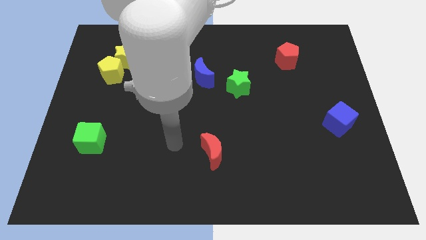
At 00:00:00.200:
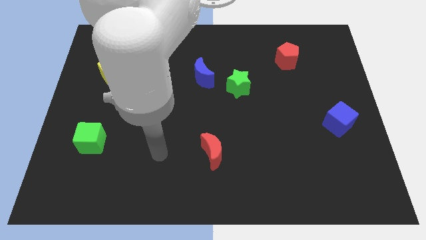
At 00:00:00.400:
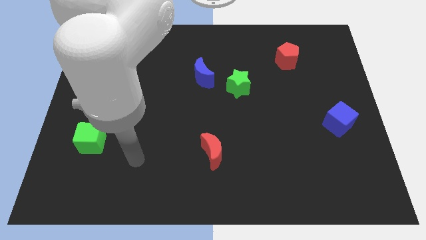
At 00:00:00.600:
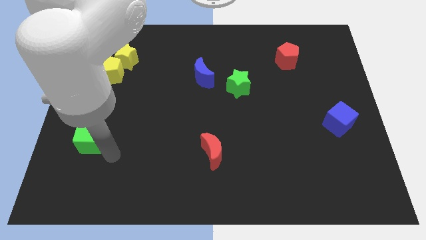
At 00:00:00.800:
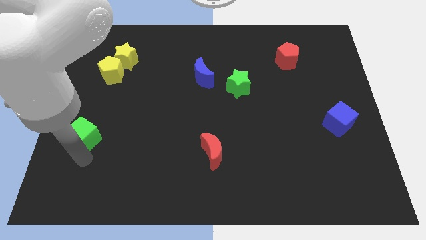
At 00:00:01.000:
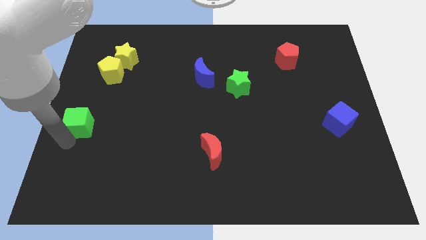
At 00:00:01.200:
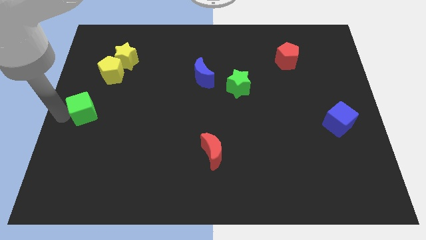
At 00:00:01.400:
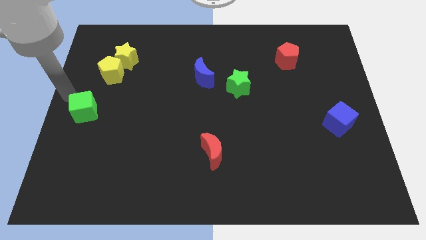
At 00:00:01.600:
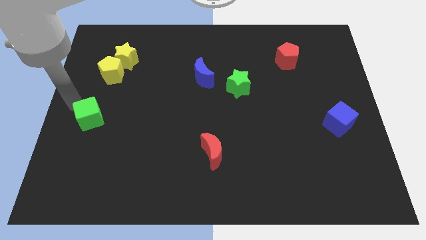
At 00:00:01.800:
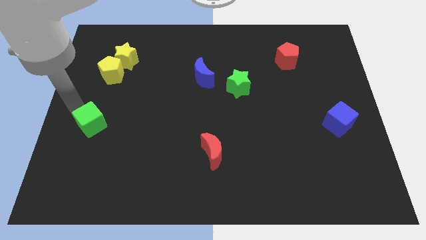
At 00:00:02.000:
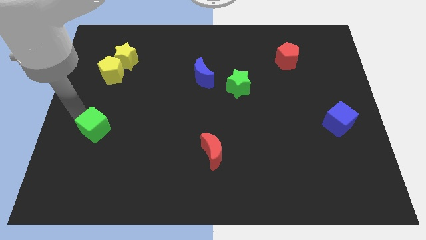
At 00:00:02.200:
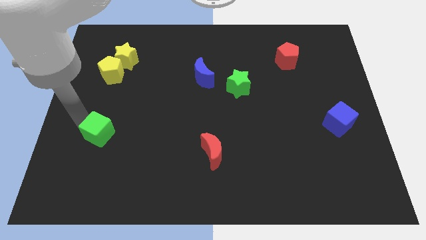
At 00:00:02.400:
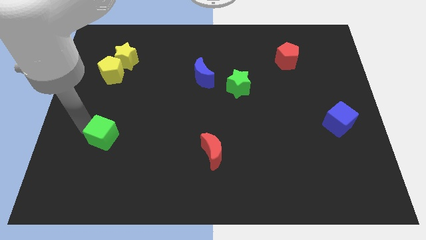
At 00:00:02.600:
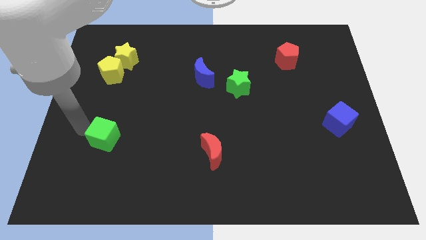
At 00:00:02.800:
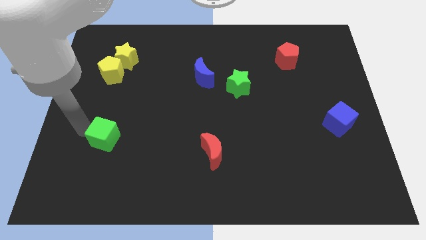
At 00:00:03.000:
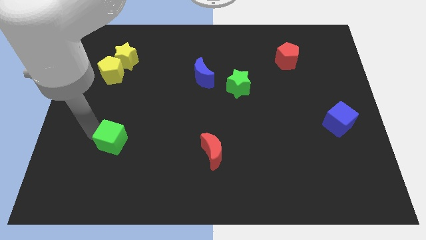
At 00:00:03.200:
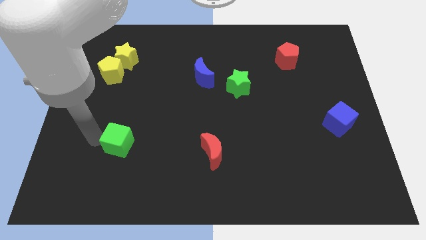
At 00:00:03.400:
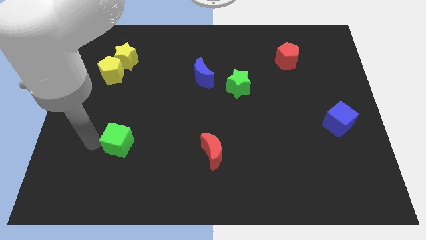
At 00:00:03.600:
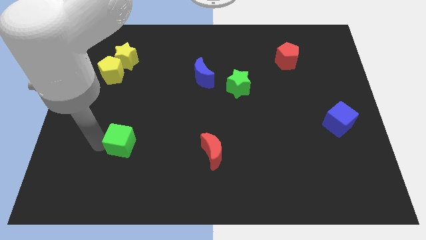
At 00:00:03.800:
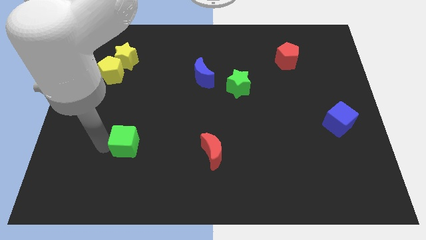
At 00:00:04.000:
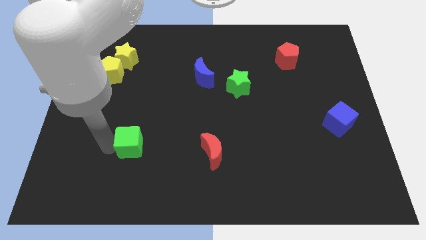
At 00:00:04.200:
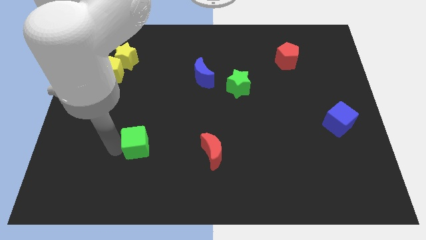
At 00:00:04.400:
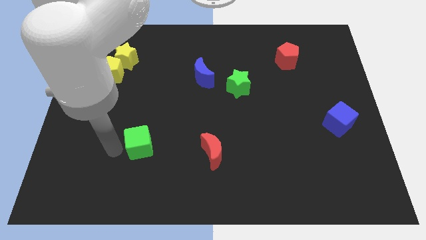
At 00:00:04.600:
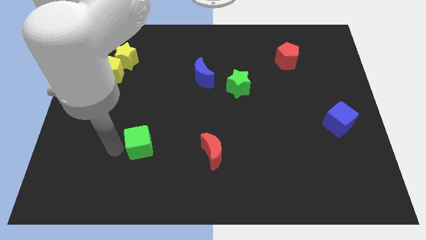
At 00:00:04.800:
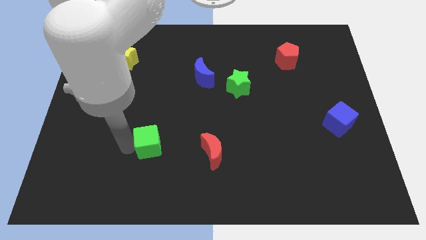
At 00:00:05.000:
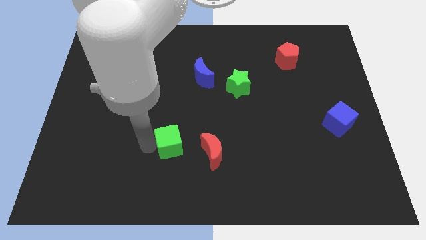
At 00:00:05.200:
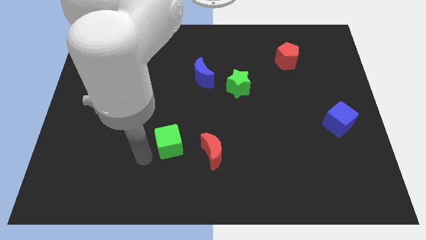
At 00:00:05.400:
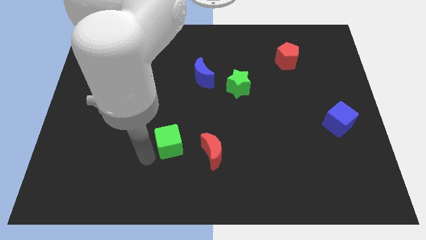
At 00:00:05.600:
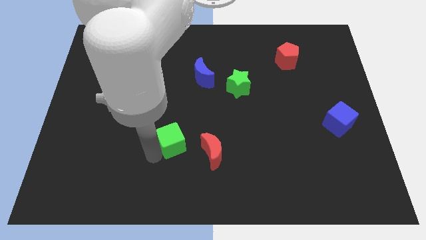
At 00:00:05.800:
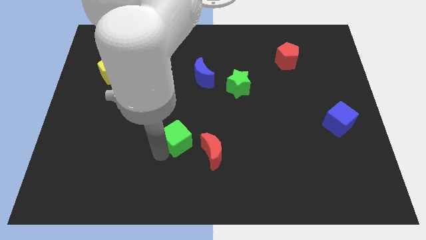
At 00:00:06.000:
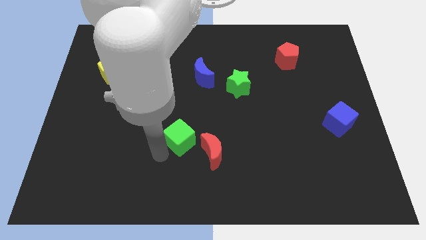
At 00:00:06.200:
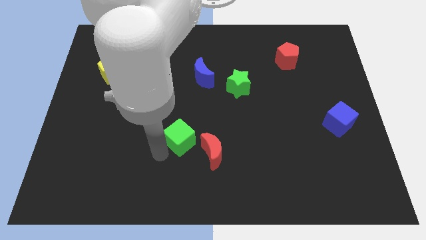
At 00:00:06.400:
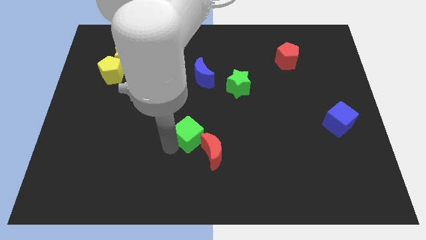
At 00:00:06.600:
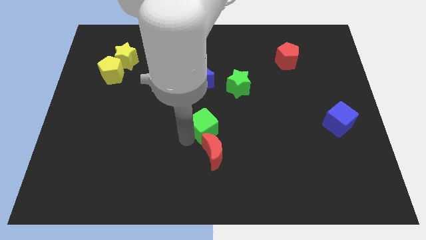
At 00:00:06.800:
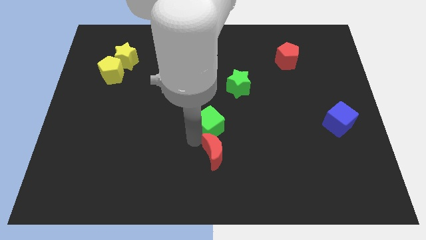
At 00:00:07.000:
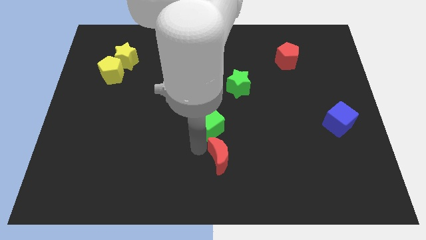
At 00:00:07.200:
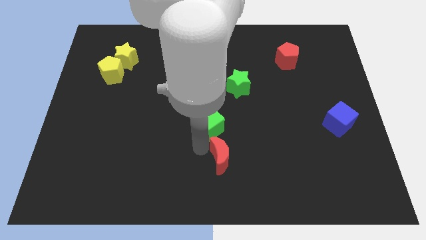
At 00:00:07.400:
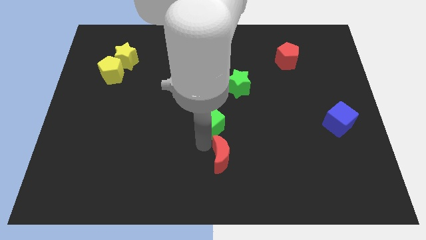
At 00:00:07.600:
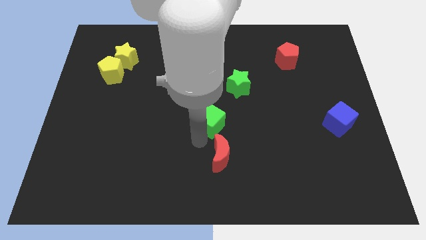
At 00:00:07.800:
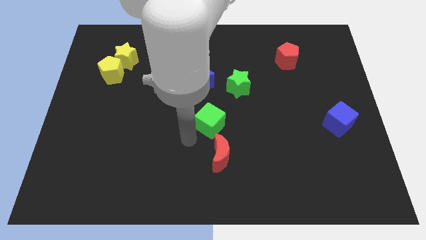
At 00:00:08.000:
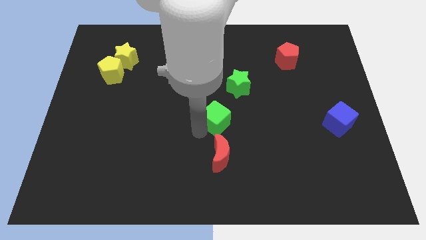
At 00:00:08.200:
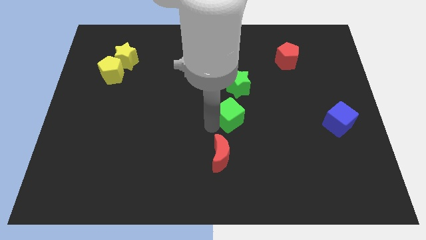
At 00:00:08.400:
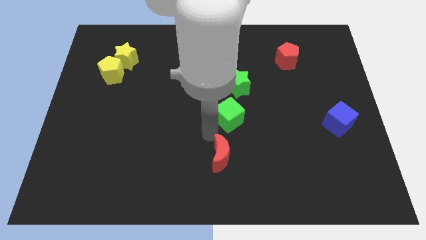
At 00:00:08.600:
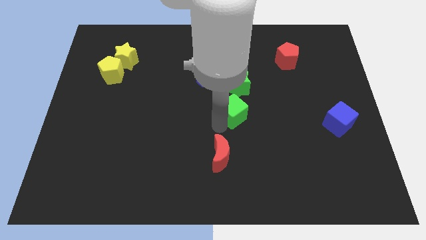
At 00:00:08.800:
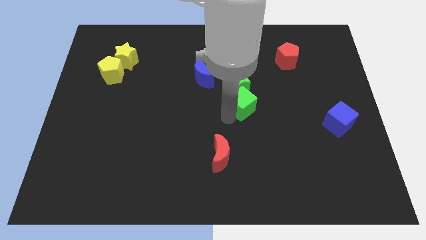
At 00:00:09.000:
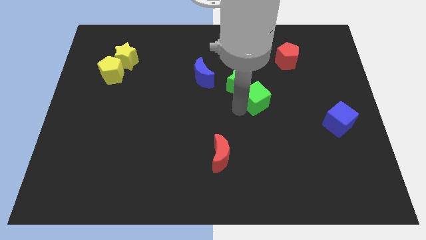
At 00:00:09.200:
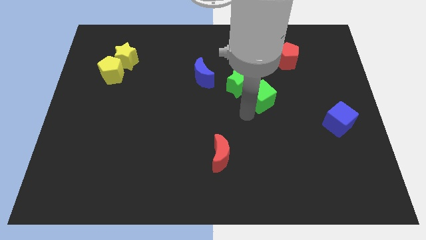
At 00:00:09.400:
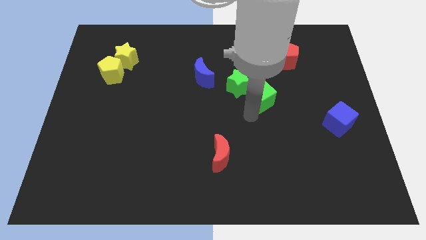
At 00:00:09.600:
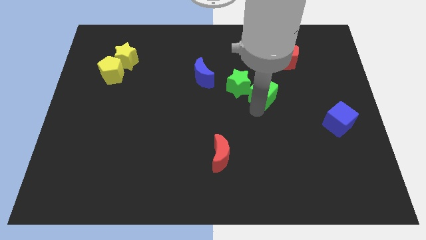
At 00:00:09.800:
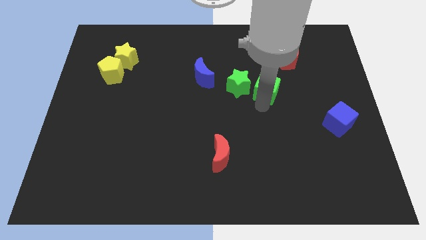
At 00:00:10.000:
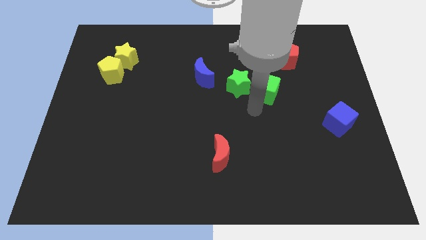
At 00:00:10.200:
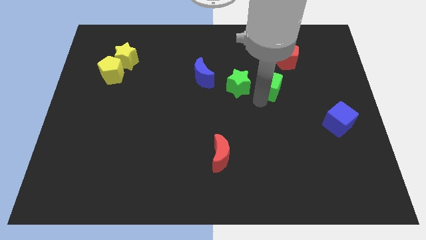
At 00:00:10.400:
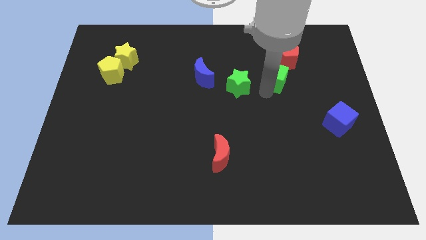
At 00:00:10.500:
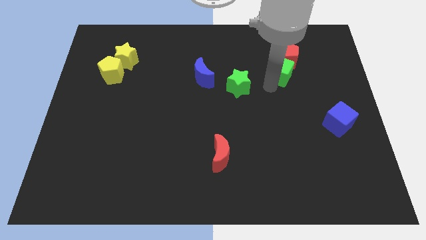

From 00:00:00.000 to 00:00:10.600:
put the green cube to the red pentagon

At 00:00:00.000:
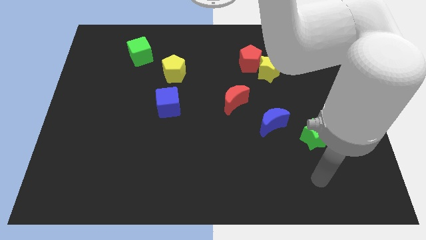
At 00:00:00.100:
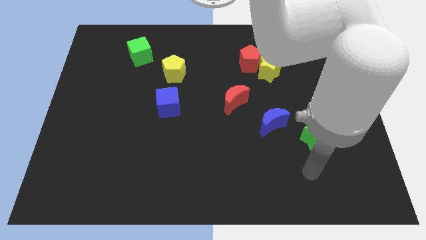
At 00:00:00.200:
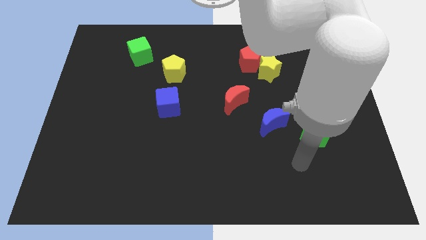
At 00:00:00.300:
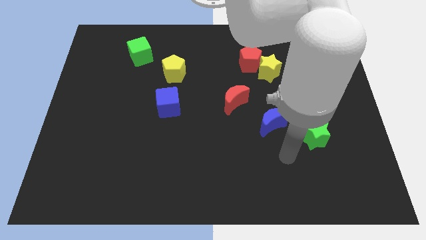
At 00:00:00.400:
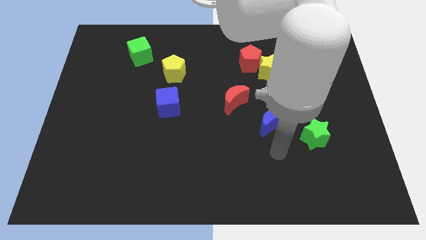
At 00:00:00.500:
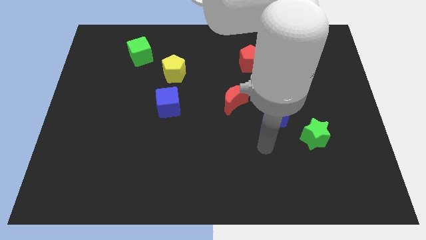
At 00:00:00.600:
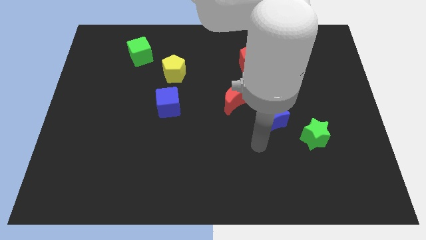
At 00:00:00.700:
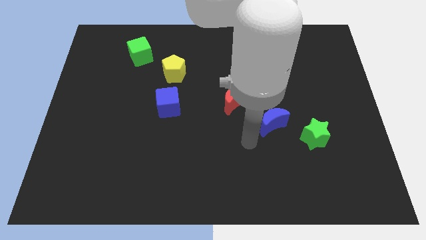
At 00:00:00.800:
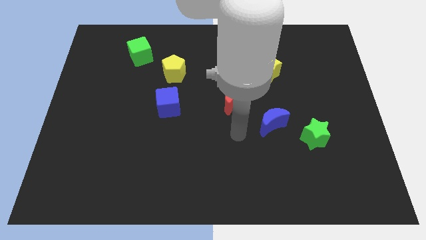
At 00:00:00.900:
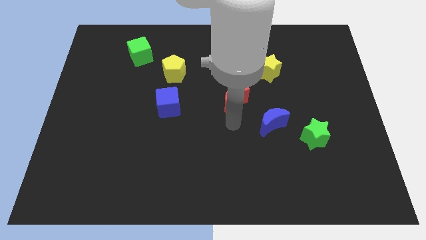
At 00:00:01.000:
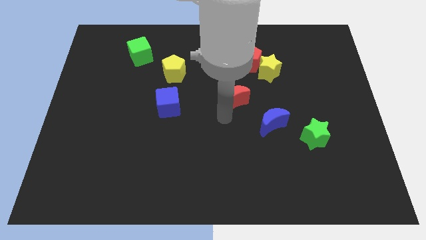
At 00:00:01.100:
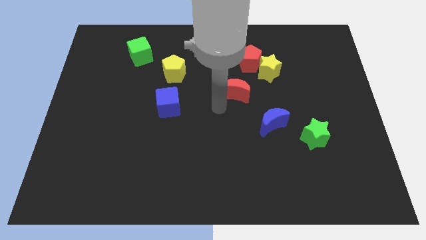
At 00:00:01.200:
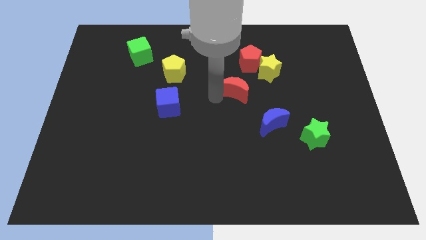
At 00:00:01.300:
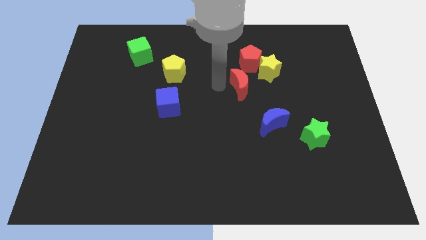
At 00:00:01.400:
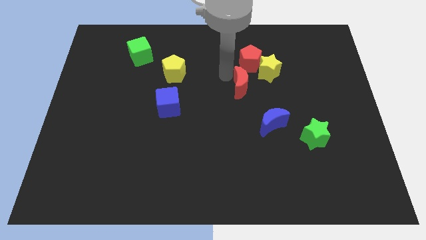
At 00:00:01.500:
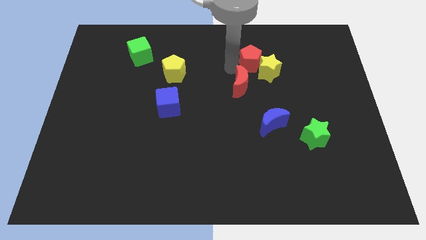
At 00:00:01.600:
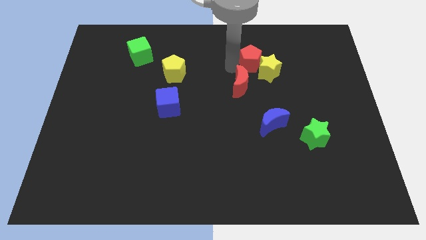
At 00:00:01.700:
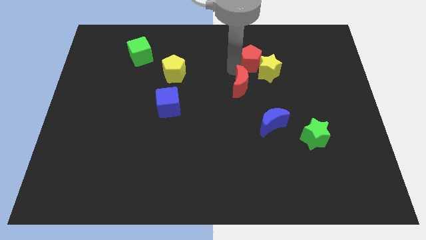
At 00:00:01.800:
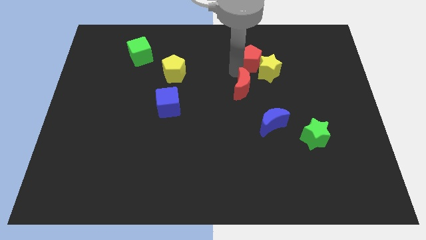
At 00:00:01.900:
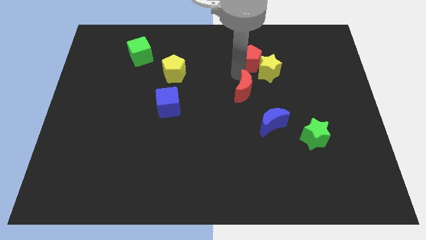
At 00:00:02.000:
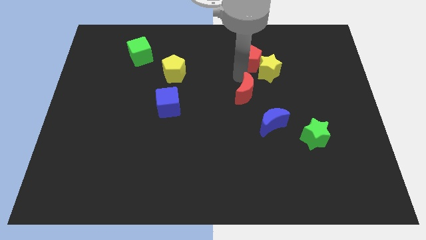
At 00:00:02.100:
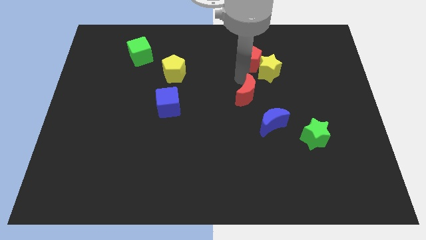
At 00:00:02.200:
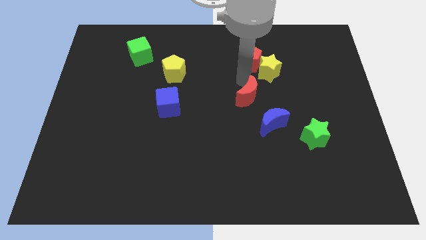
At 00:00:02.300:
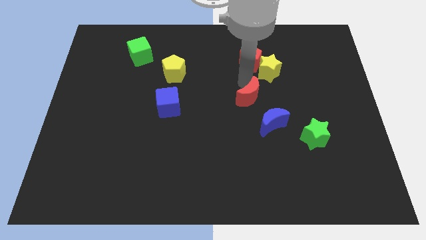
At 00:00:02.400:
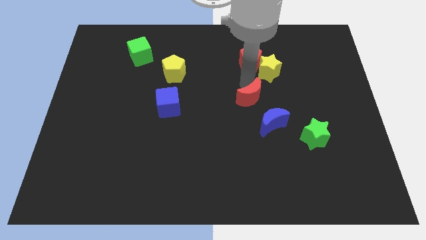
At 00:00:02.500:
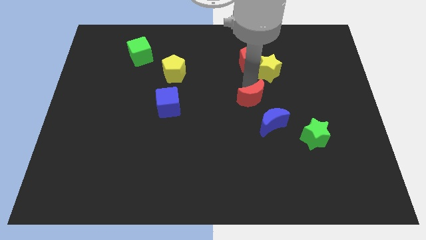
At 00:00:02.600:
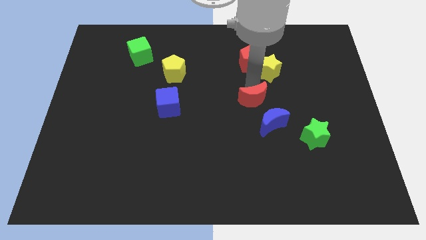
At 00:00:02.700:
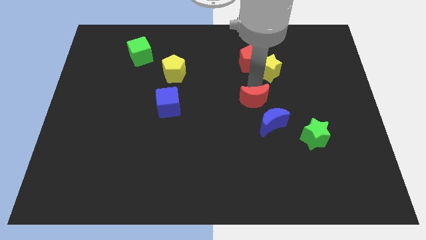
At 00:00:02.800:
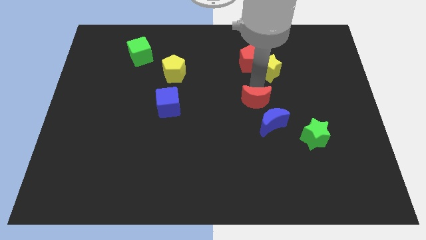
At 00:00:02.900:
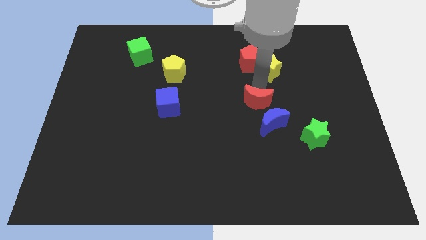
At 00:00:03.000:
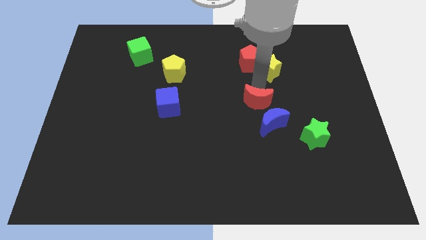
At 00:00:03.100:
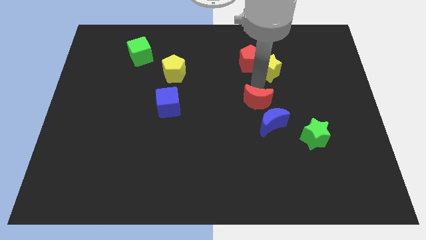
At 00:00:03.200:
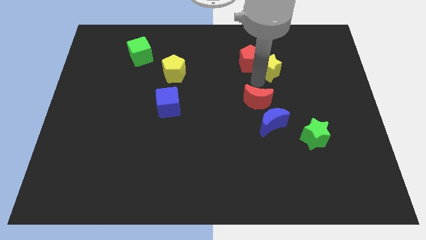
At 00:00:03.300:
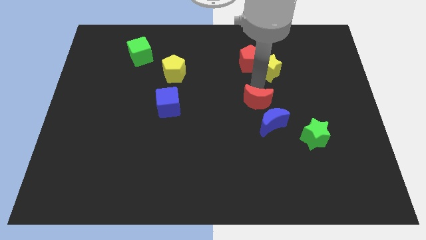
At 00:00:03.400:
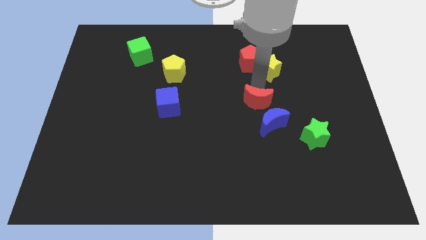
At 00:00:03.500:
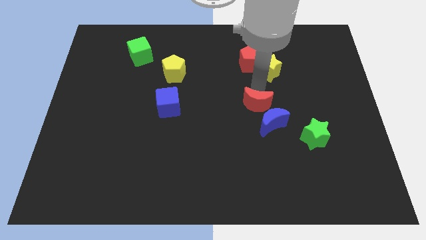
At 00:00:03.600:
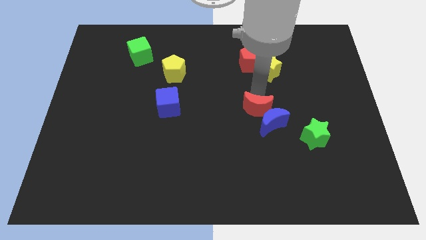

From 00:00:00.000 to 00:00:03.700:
move the red moon next to the blue moon
